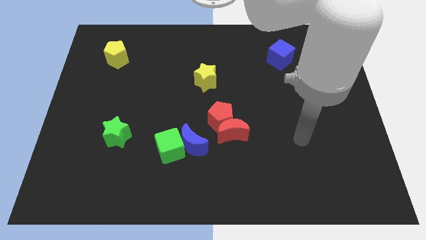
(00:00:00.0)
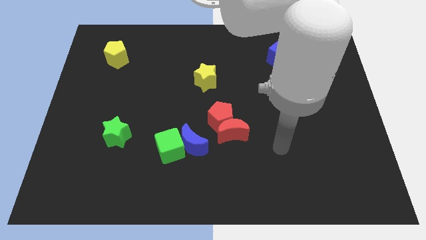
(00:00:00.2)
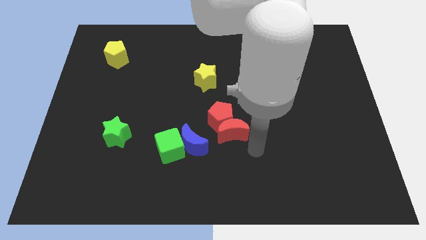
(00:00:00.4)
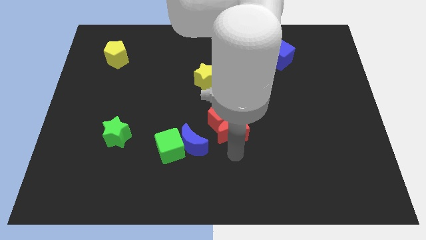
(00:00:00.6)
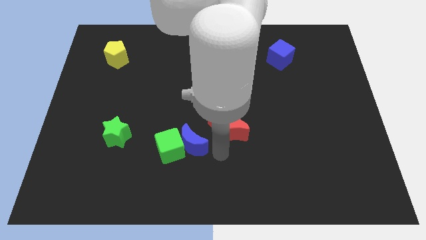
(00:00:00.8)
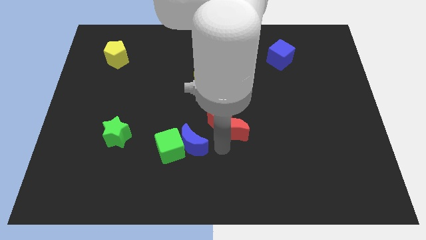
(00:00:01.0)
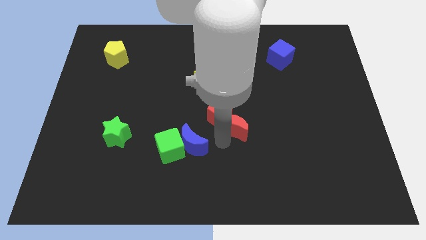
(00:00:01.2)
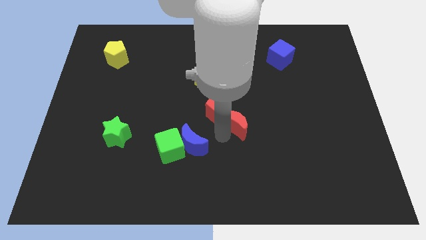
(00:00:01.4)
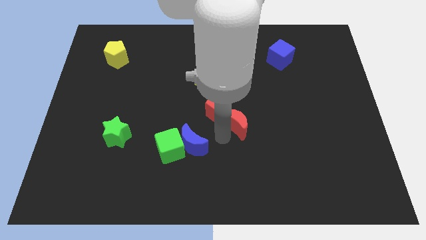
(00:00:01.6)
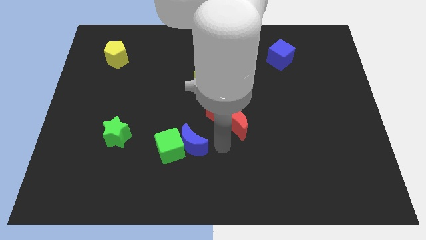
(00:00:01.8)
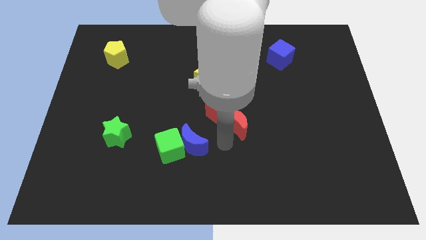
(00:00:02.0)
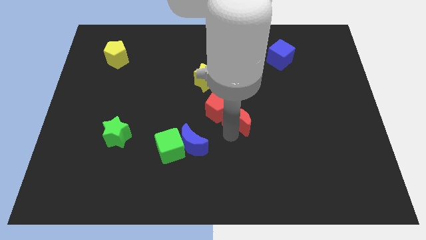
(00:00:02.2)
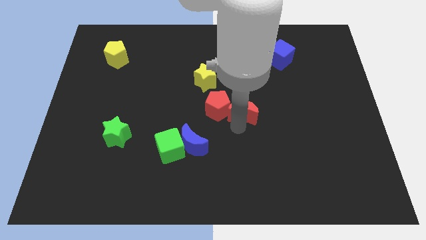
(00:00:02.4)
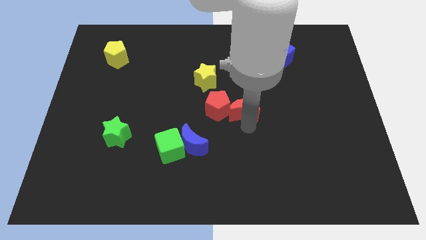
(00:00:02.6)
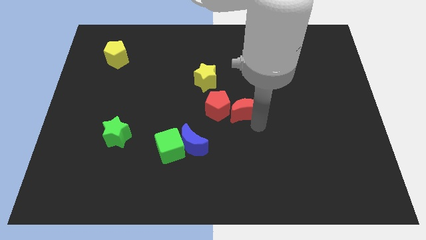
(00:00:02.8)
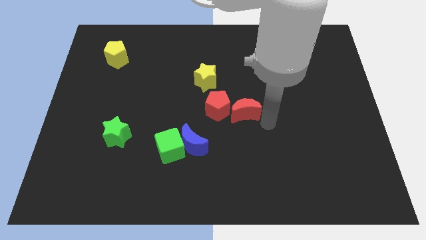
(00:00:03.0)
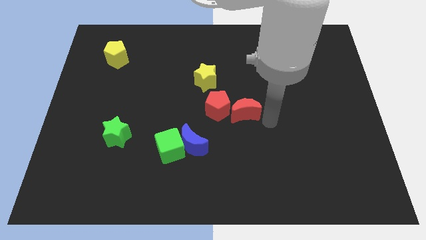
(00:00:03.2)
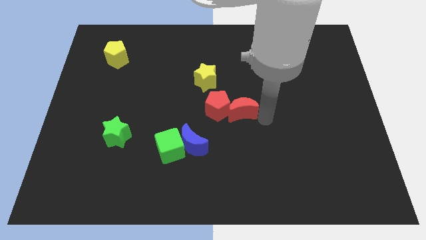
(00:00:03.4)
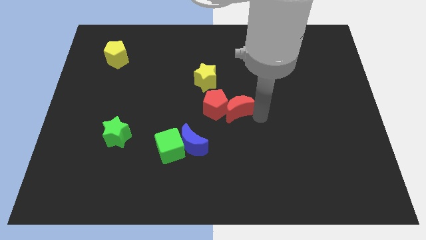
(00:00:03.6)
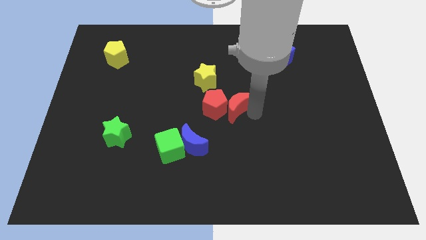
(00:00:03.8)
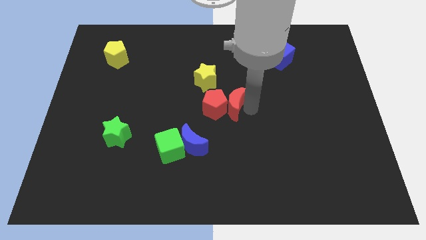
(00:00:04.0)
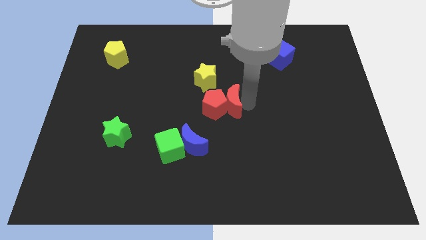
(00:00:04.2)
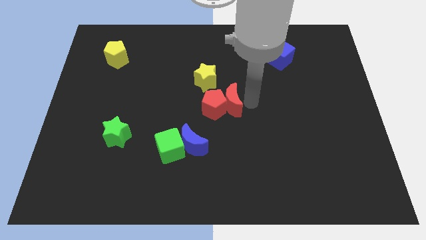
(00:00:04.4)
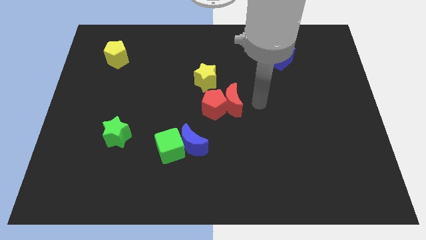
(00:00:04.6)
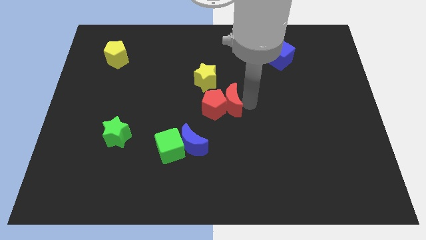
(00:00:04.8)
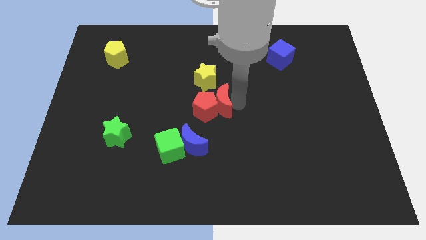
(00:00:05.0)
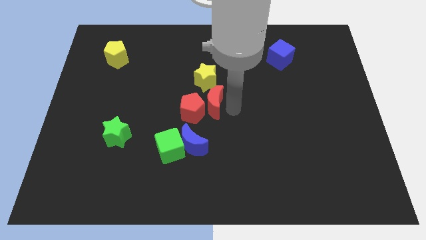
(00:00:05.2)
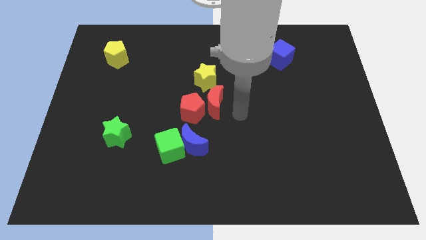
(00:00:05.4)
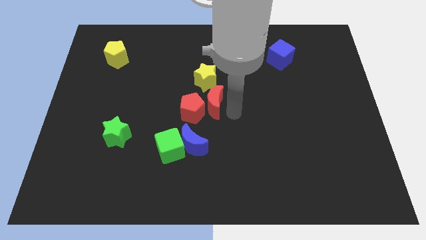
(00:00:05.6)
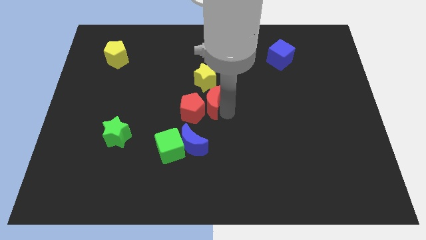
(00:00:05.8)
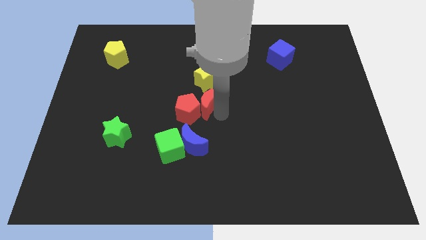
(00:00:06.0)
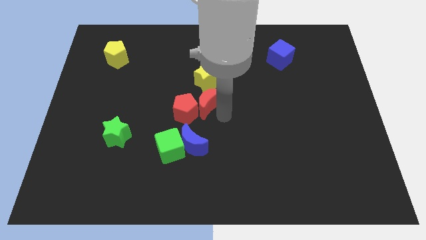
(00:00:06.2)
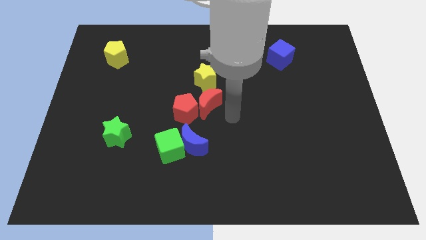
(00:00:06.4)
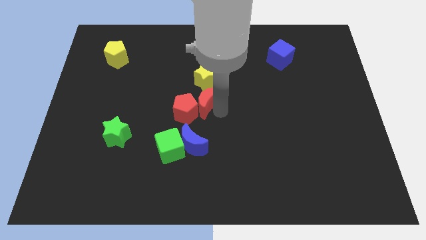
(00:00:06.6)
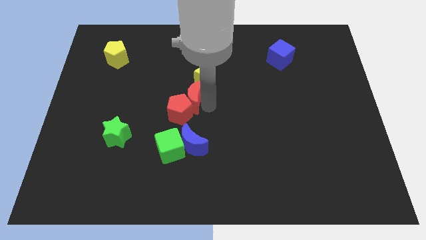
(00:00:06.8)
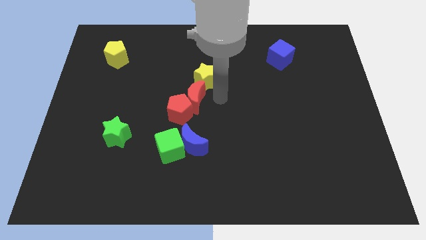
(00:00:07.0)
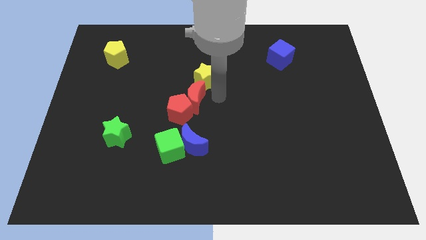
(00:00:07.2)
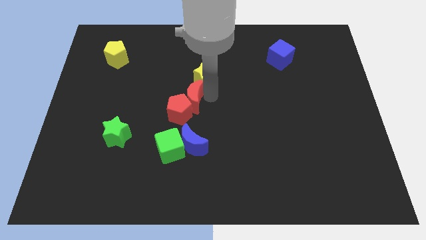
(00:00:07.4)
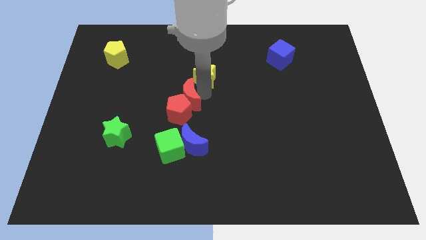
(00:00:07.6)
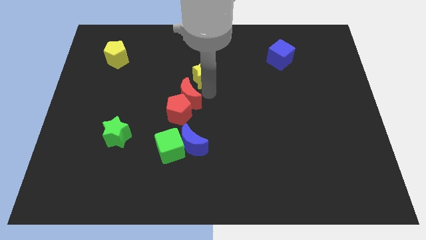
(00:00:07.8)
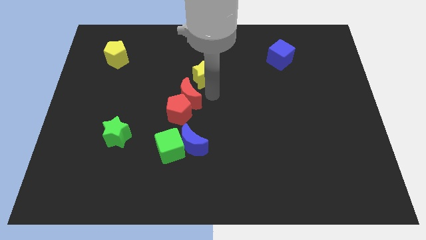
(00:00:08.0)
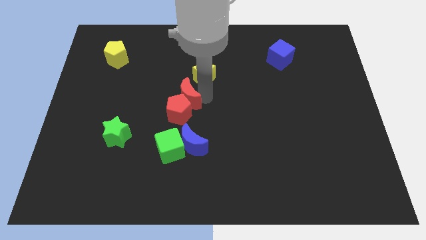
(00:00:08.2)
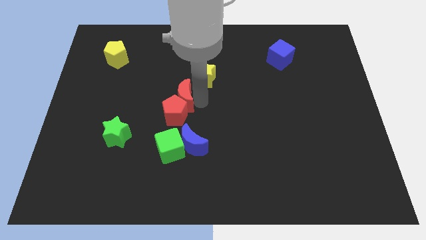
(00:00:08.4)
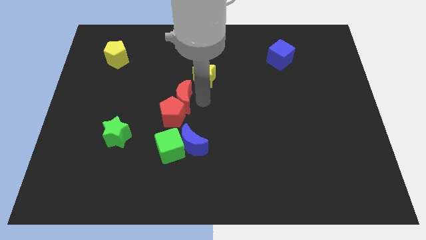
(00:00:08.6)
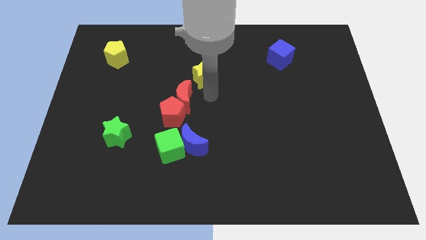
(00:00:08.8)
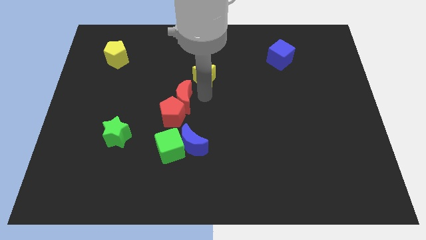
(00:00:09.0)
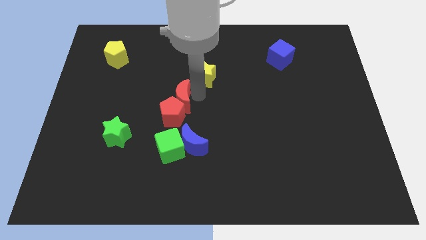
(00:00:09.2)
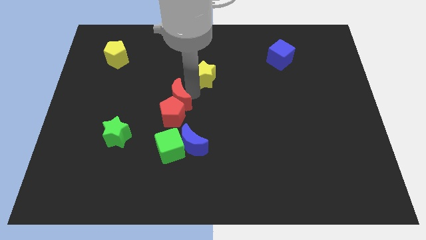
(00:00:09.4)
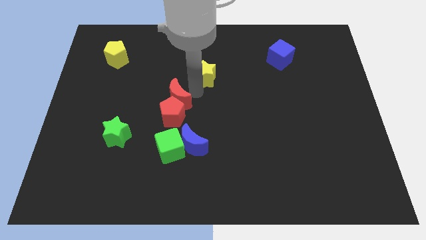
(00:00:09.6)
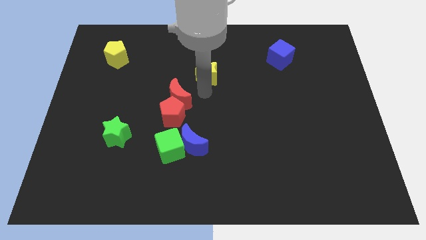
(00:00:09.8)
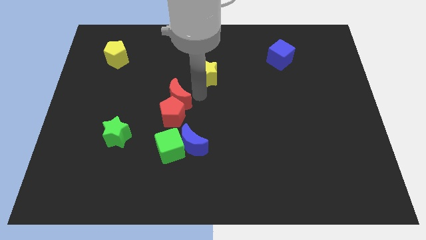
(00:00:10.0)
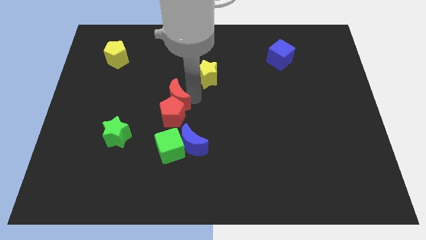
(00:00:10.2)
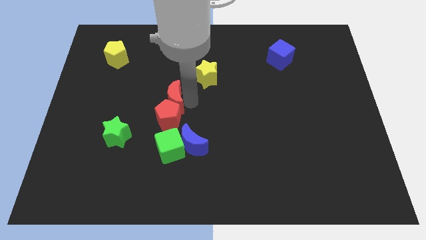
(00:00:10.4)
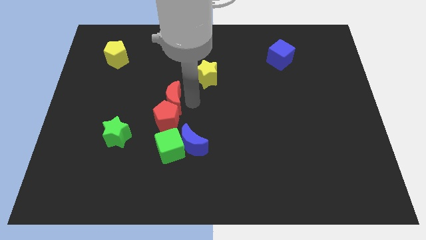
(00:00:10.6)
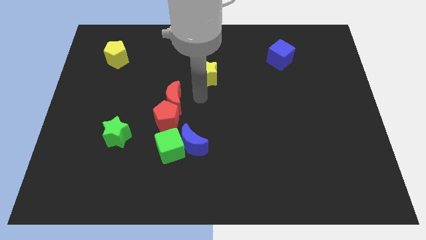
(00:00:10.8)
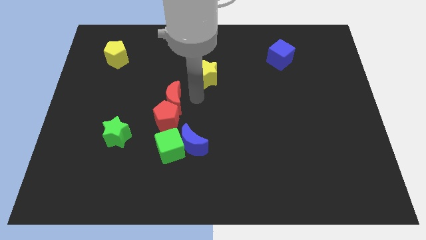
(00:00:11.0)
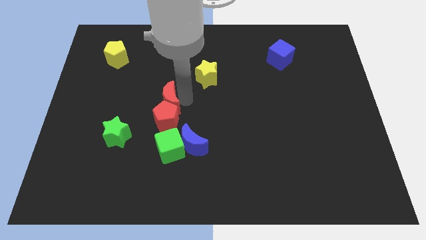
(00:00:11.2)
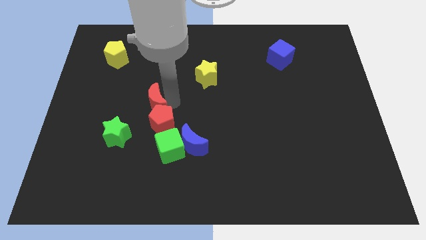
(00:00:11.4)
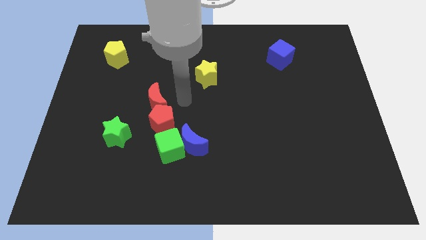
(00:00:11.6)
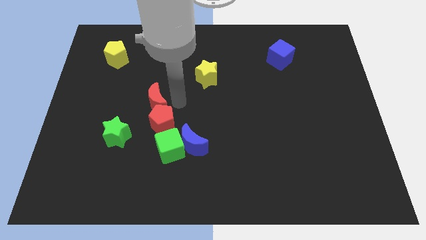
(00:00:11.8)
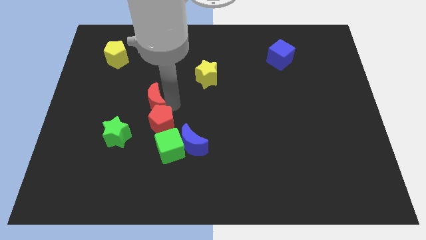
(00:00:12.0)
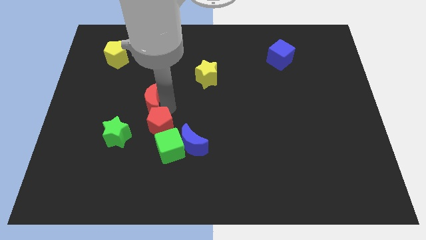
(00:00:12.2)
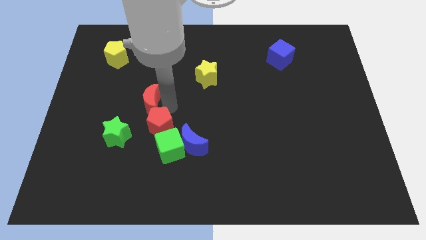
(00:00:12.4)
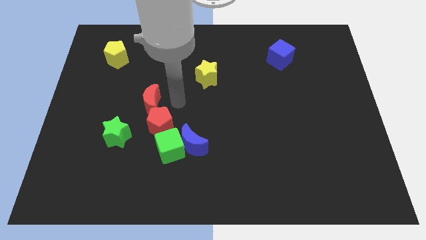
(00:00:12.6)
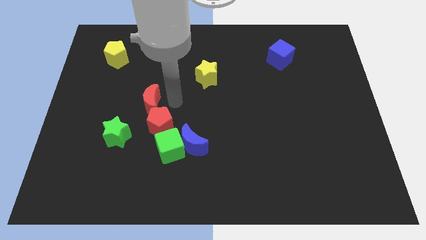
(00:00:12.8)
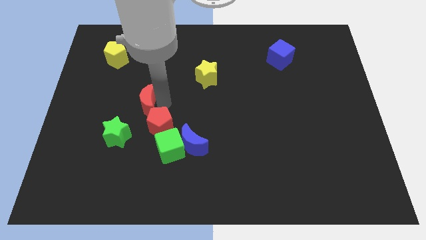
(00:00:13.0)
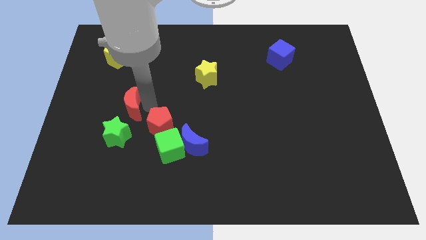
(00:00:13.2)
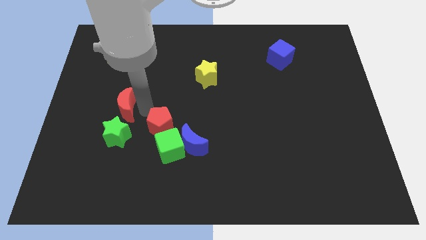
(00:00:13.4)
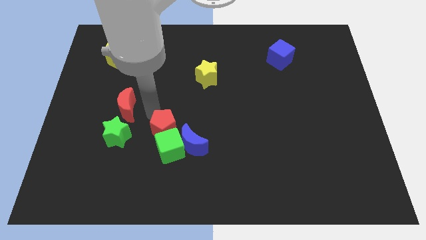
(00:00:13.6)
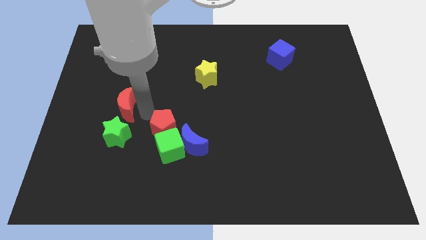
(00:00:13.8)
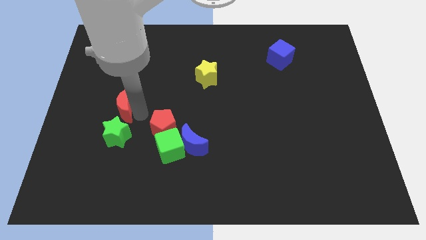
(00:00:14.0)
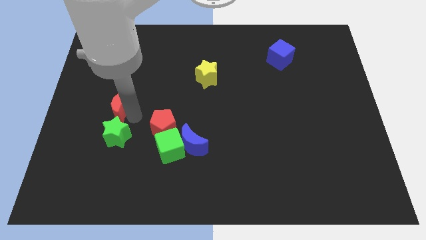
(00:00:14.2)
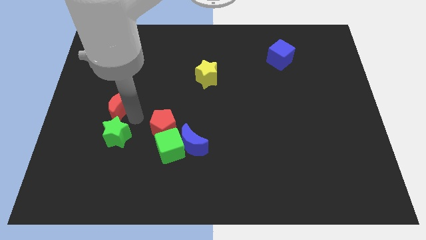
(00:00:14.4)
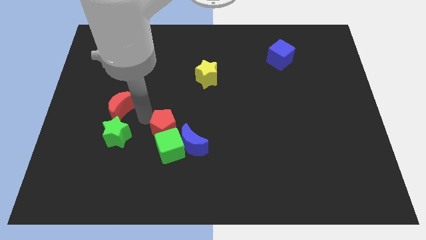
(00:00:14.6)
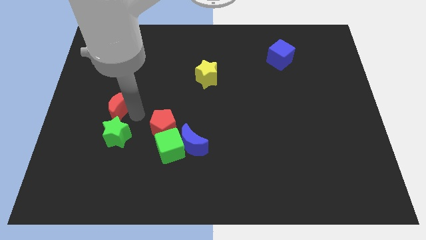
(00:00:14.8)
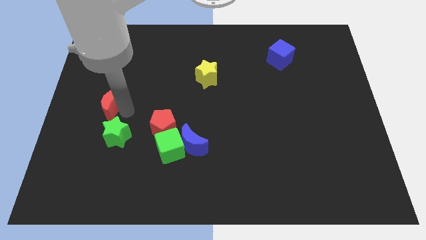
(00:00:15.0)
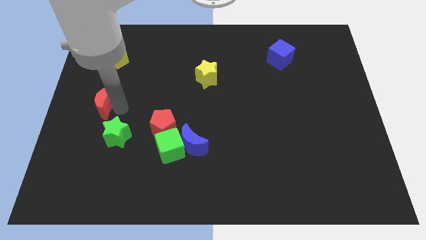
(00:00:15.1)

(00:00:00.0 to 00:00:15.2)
put the red moon to the left side of the board
